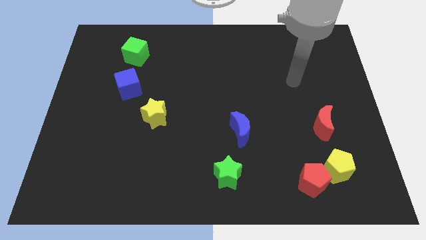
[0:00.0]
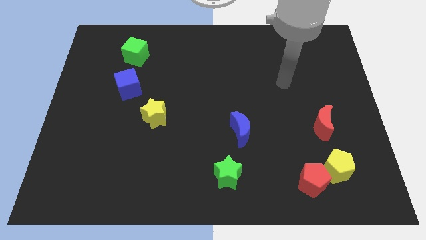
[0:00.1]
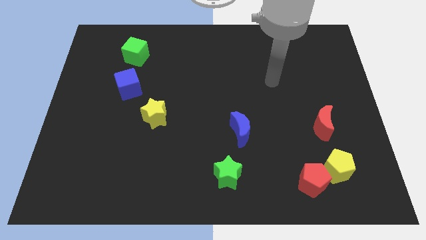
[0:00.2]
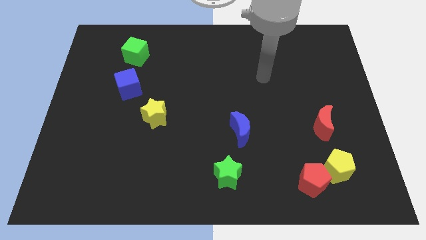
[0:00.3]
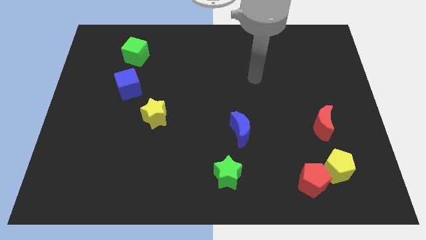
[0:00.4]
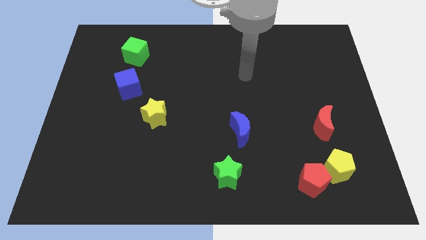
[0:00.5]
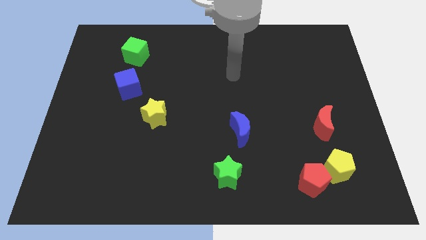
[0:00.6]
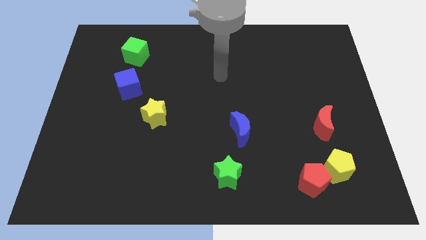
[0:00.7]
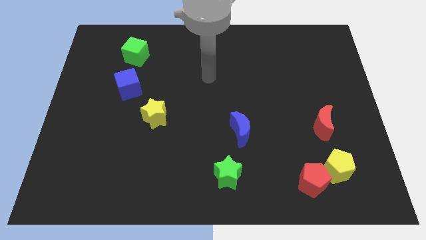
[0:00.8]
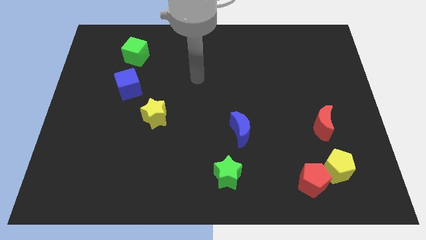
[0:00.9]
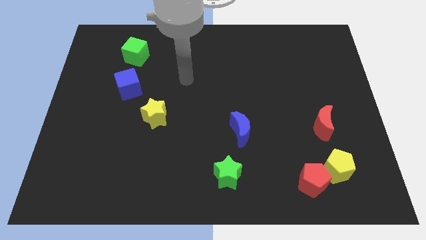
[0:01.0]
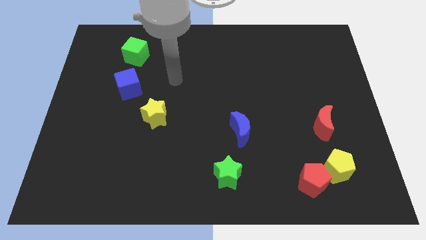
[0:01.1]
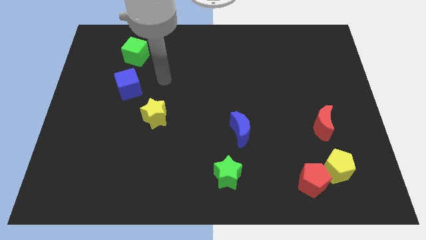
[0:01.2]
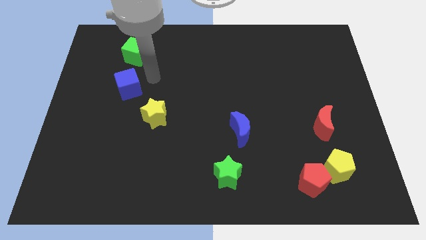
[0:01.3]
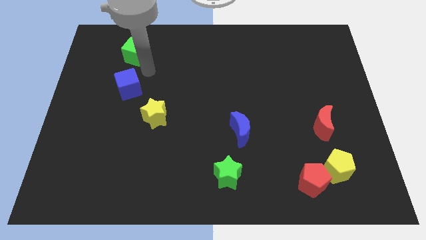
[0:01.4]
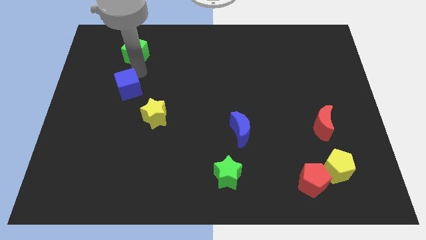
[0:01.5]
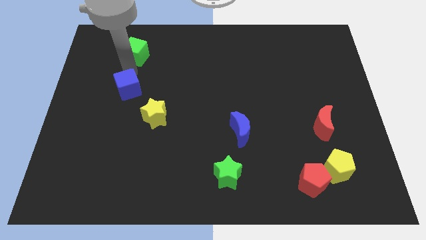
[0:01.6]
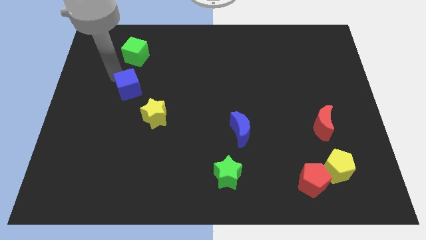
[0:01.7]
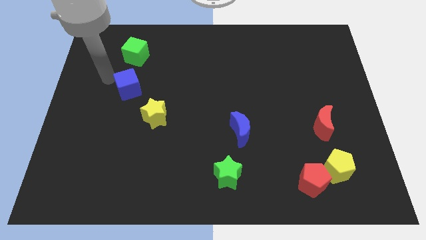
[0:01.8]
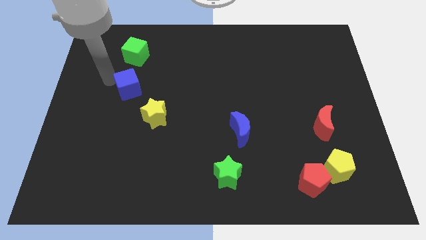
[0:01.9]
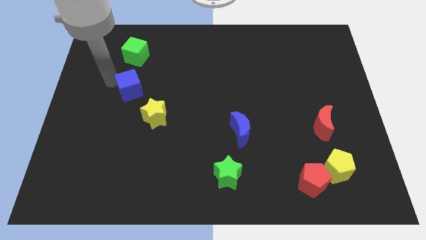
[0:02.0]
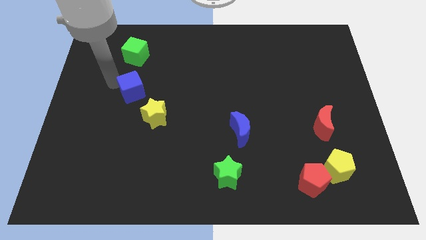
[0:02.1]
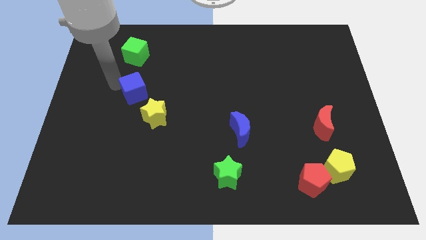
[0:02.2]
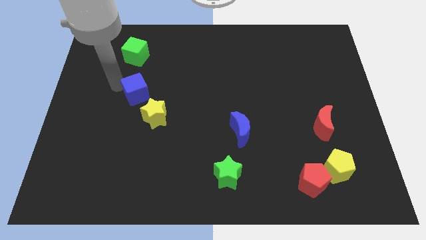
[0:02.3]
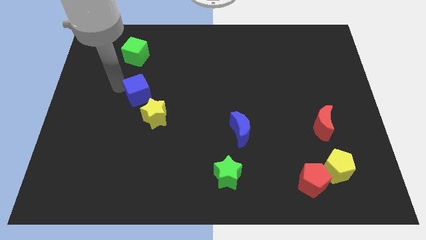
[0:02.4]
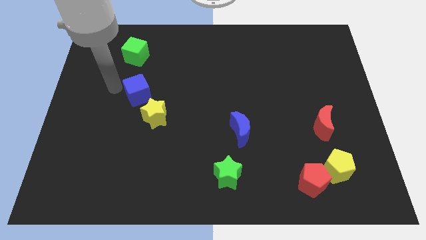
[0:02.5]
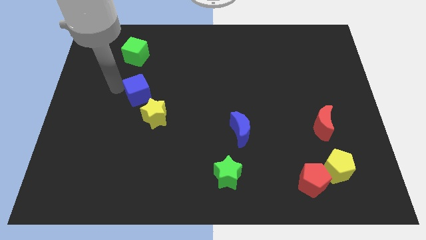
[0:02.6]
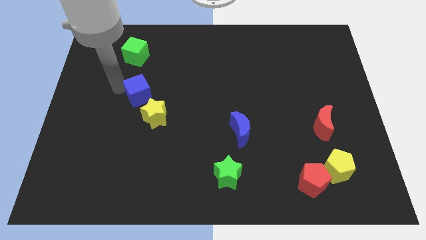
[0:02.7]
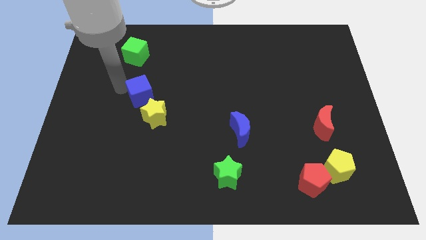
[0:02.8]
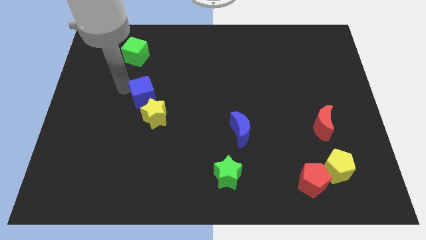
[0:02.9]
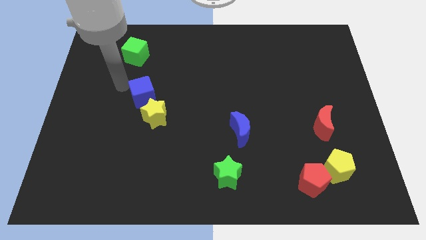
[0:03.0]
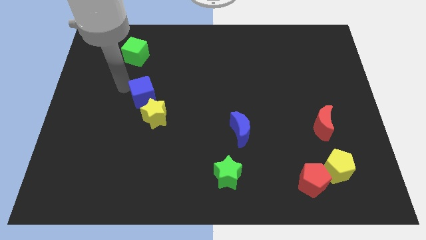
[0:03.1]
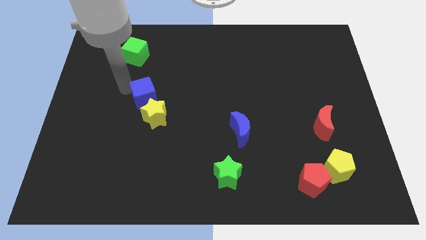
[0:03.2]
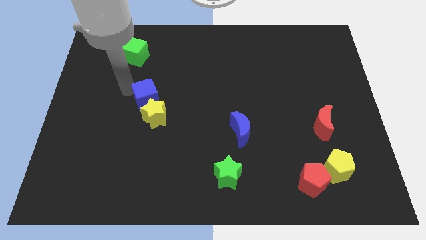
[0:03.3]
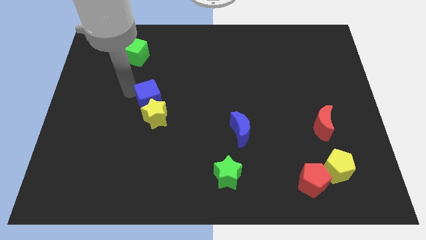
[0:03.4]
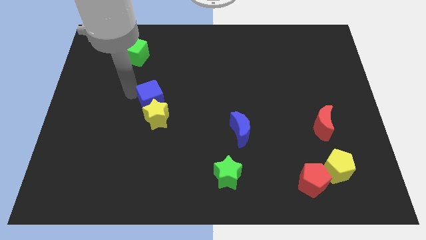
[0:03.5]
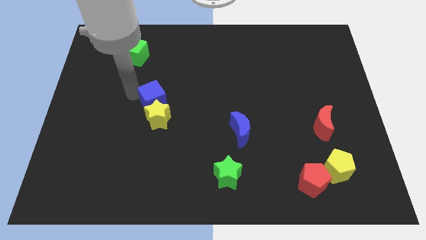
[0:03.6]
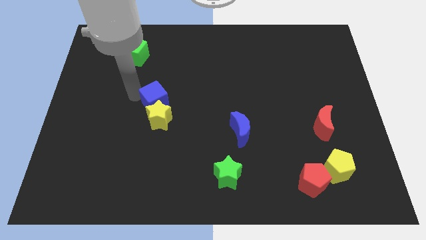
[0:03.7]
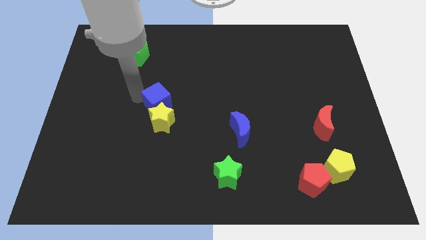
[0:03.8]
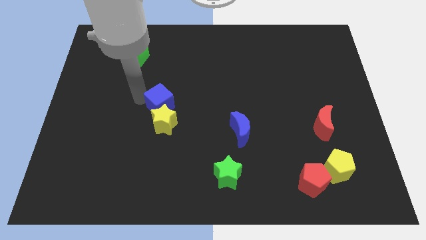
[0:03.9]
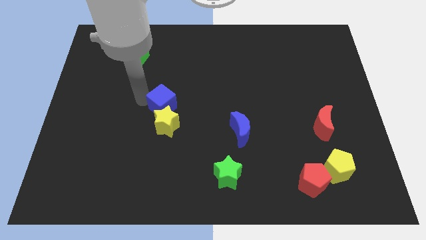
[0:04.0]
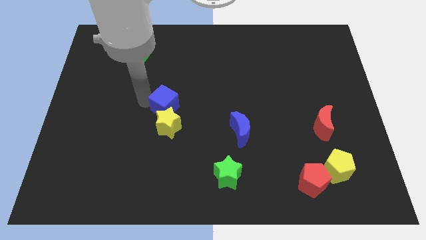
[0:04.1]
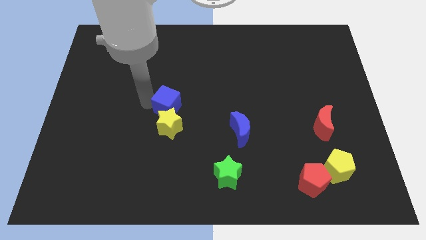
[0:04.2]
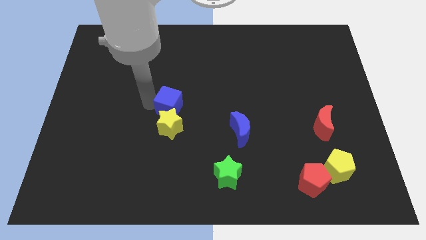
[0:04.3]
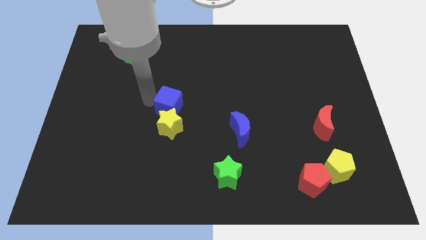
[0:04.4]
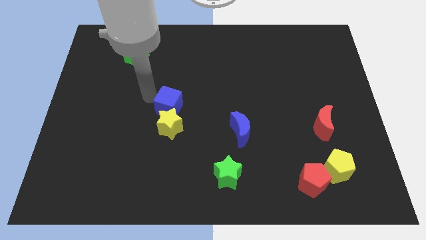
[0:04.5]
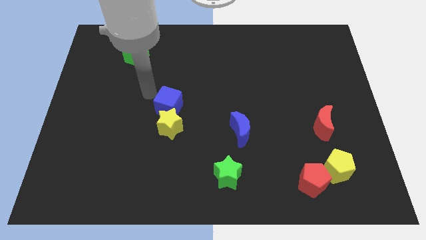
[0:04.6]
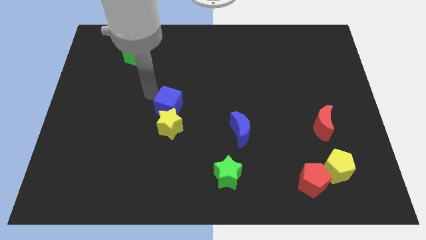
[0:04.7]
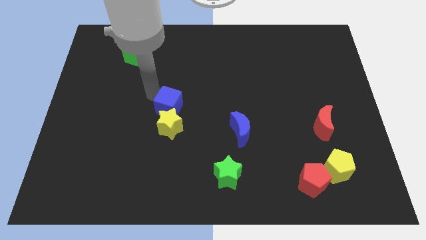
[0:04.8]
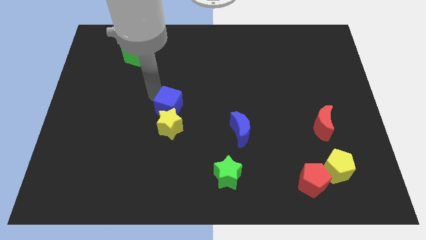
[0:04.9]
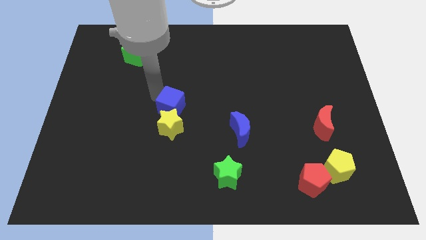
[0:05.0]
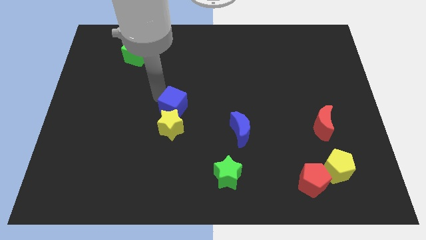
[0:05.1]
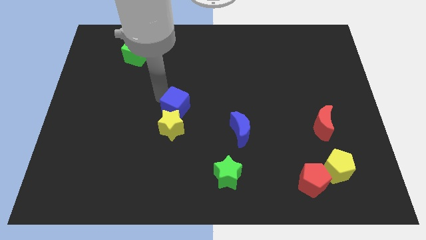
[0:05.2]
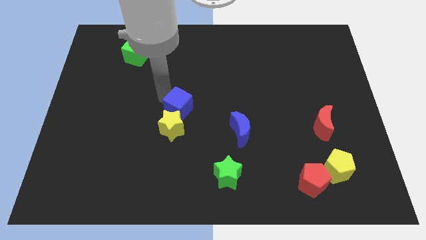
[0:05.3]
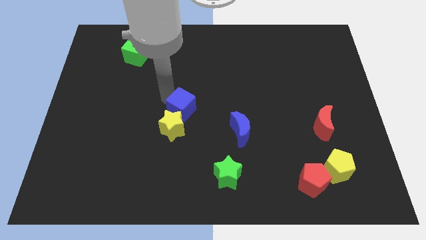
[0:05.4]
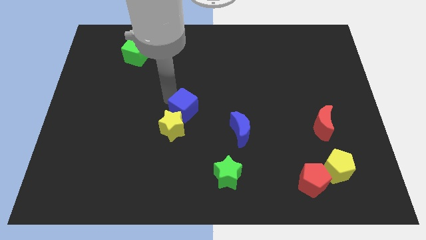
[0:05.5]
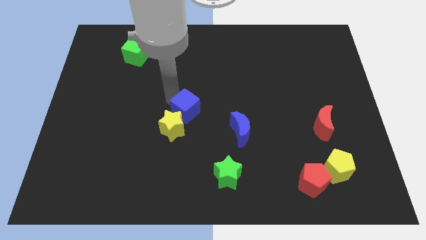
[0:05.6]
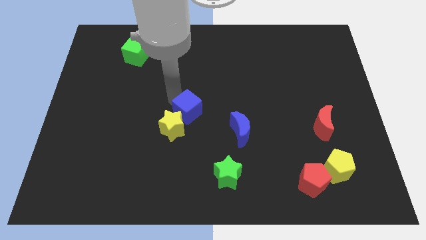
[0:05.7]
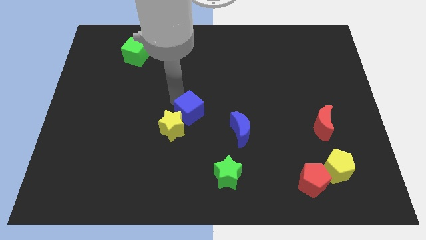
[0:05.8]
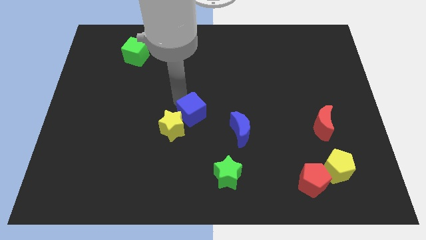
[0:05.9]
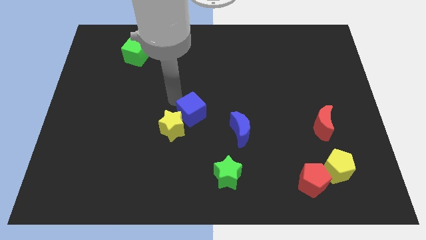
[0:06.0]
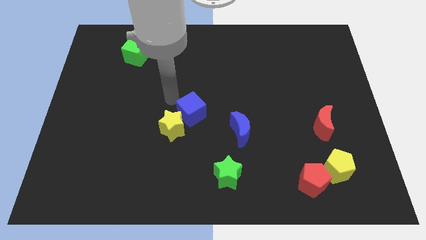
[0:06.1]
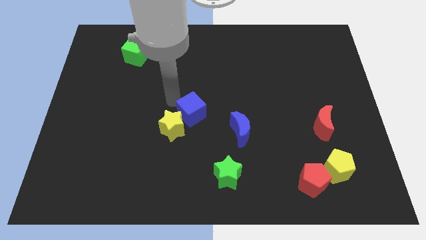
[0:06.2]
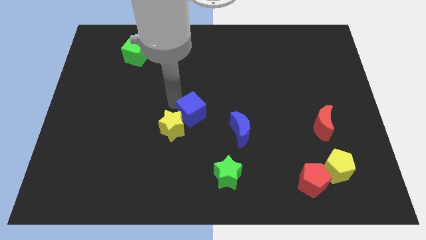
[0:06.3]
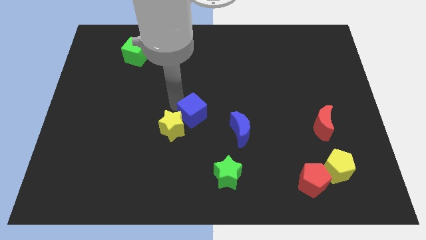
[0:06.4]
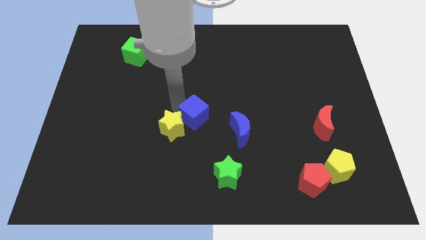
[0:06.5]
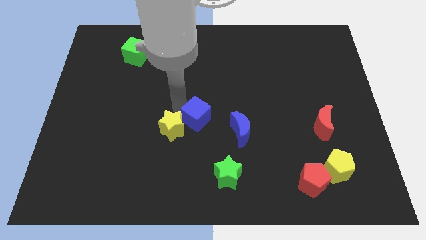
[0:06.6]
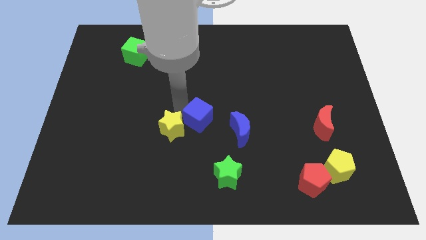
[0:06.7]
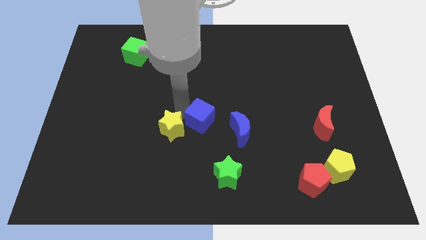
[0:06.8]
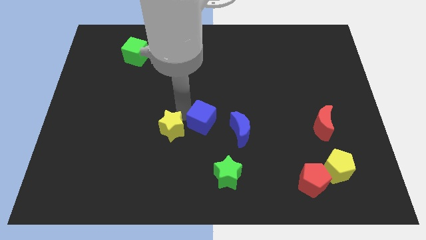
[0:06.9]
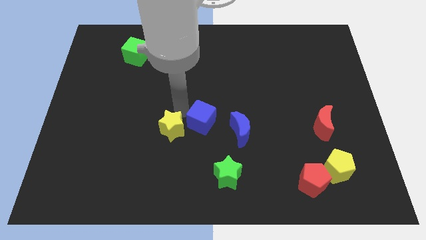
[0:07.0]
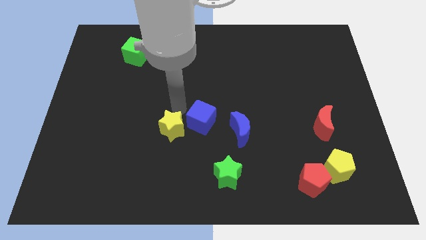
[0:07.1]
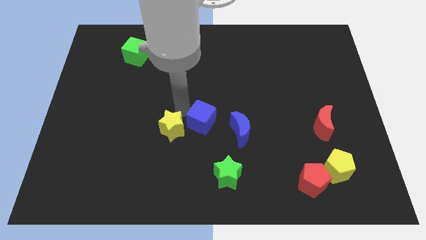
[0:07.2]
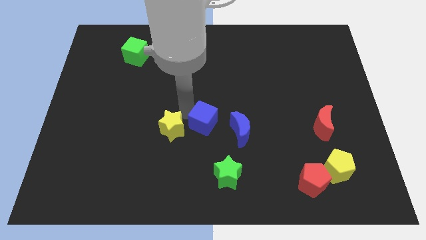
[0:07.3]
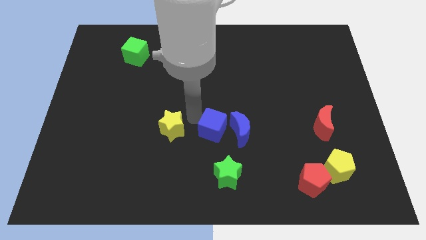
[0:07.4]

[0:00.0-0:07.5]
slide the blue cube towards the blue moon
